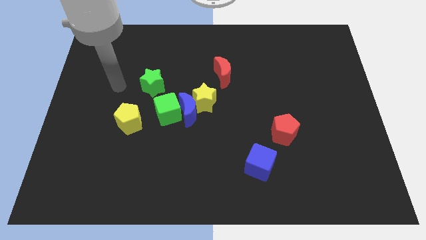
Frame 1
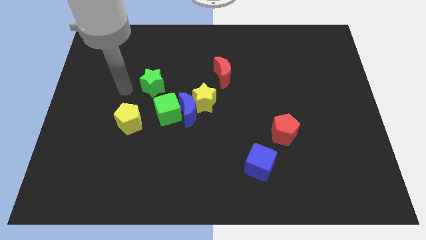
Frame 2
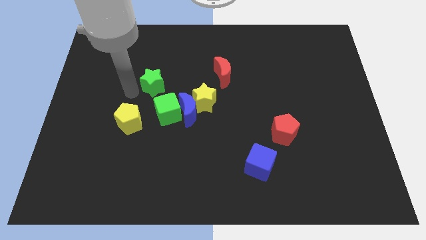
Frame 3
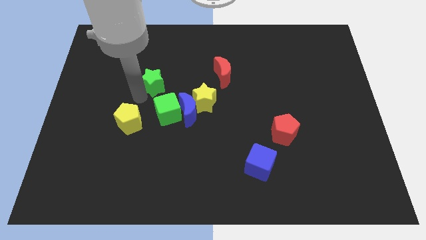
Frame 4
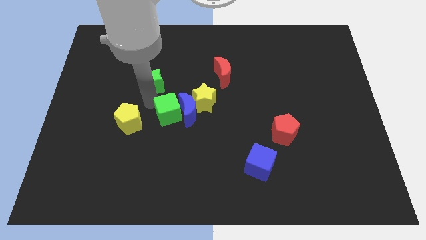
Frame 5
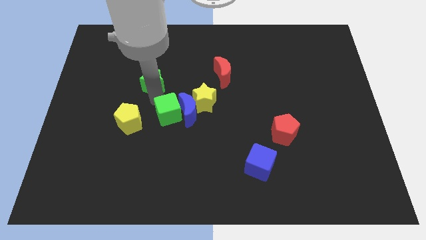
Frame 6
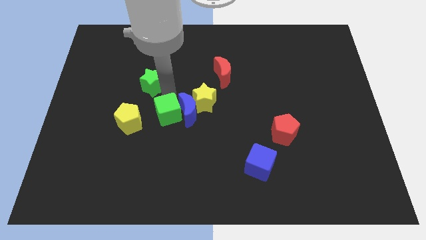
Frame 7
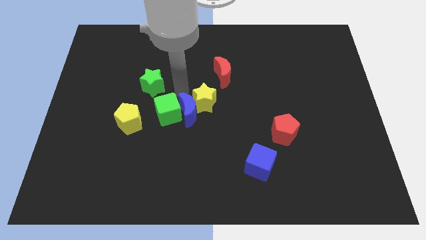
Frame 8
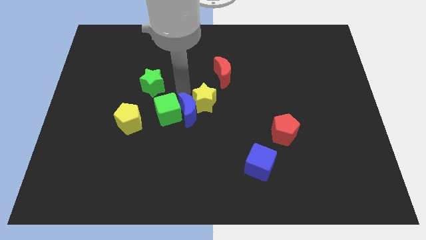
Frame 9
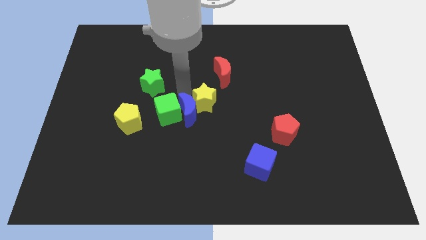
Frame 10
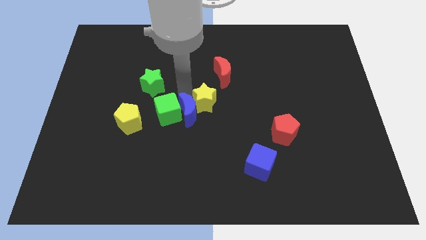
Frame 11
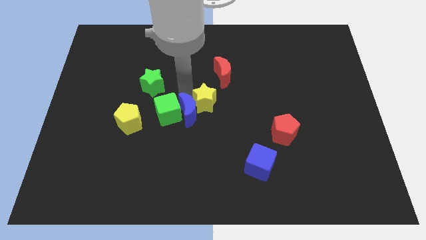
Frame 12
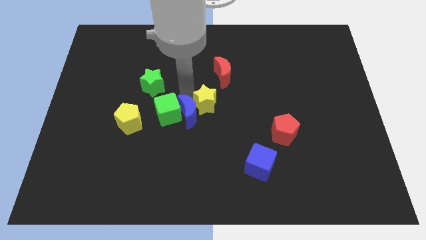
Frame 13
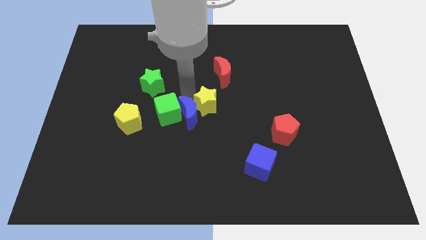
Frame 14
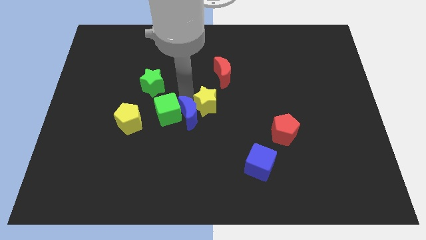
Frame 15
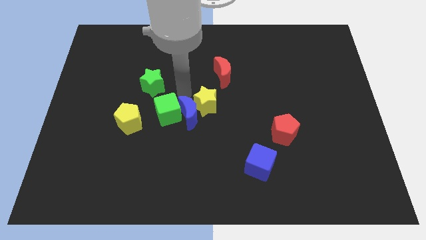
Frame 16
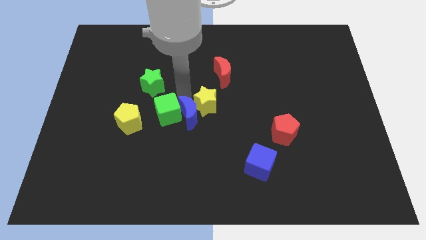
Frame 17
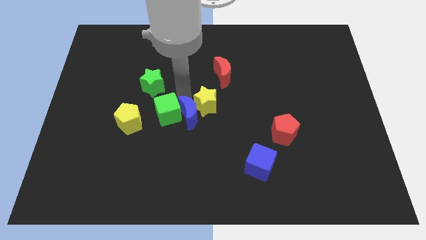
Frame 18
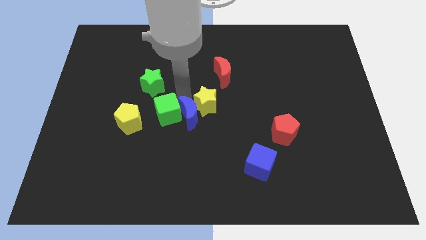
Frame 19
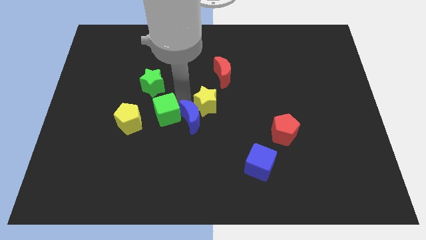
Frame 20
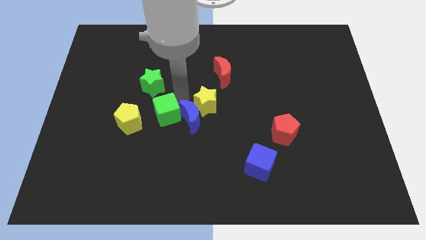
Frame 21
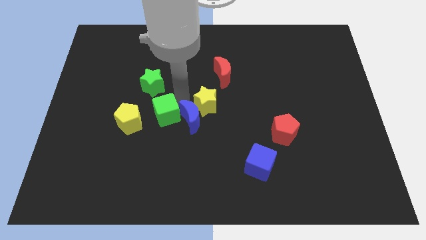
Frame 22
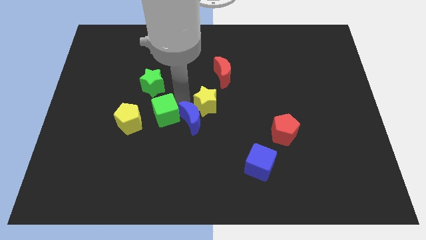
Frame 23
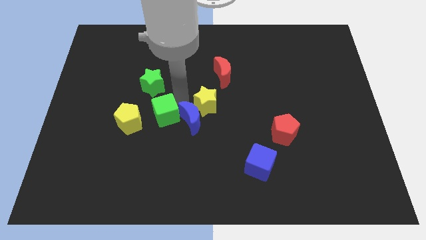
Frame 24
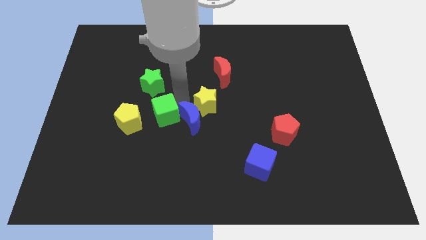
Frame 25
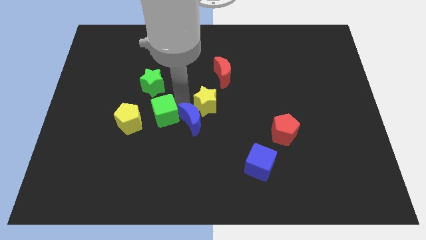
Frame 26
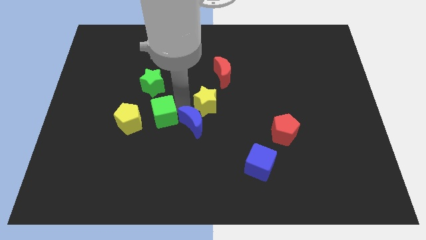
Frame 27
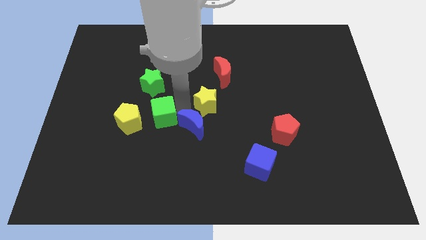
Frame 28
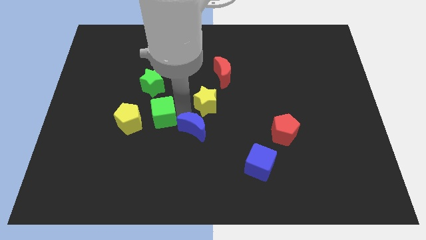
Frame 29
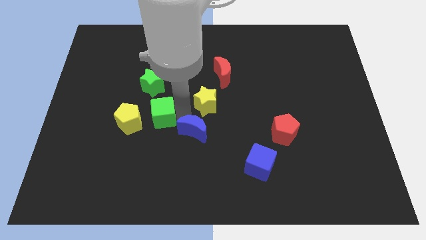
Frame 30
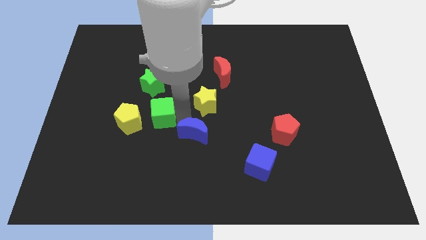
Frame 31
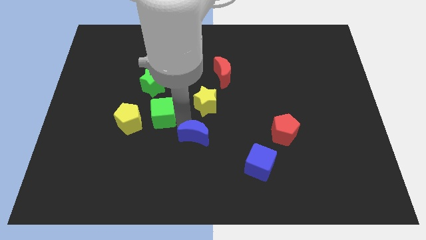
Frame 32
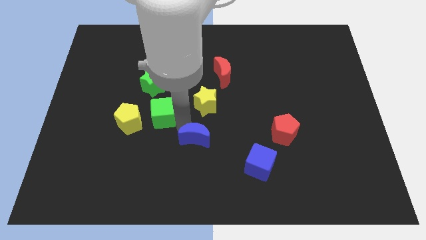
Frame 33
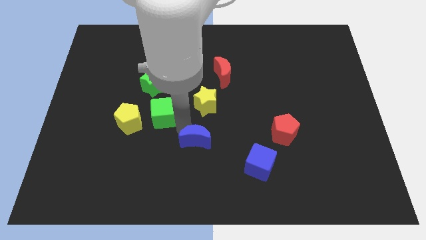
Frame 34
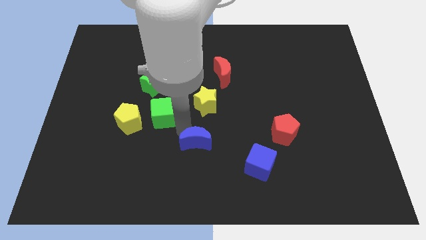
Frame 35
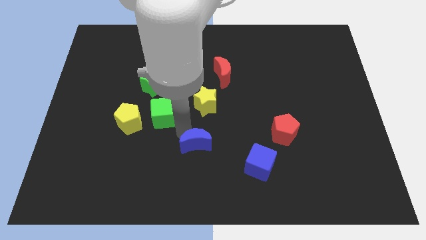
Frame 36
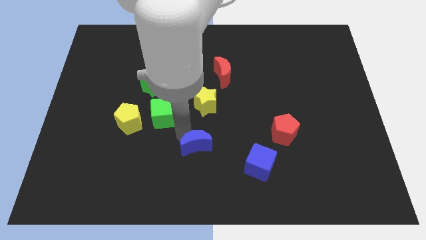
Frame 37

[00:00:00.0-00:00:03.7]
move the blue moon away from the yellow star and green cube

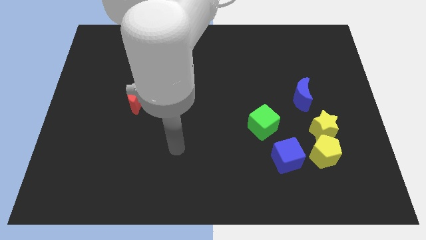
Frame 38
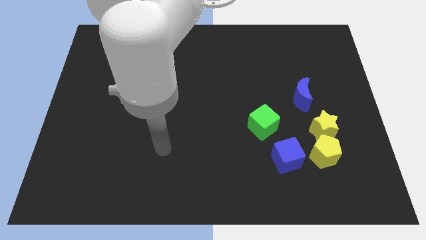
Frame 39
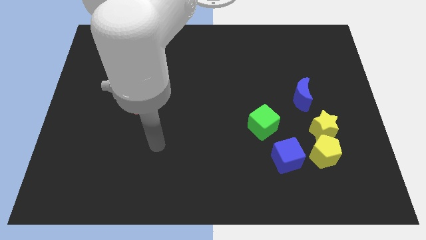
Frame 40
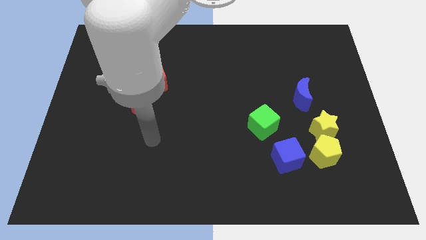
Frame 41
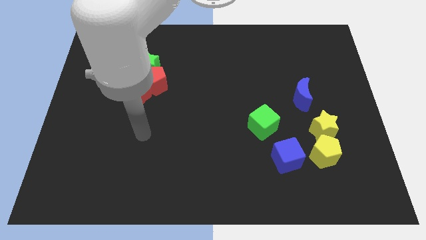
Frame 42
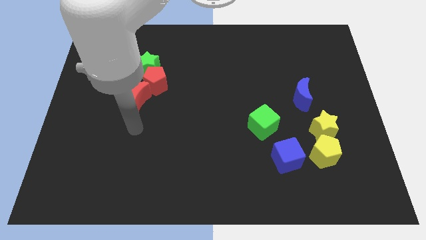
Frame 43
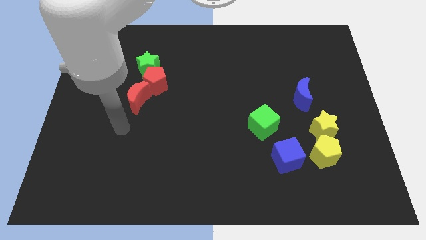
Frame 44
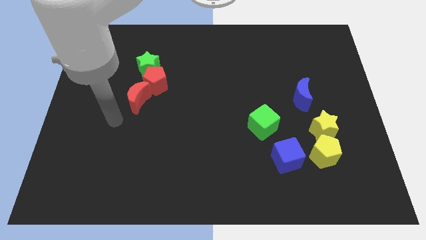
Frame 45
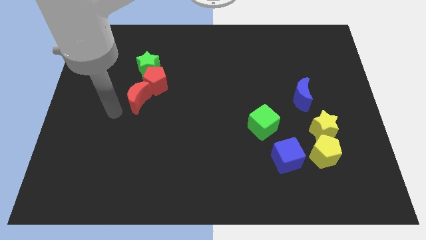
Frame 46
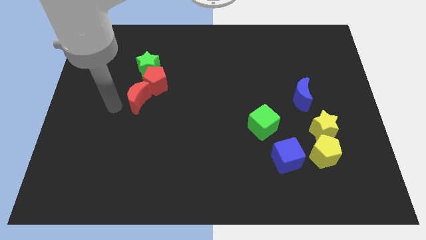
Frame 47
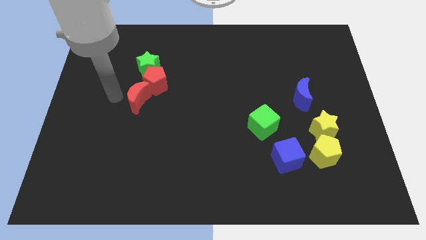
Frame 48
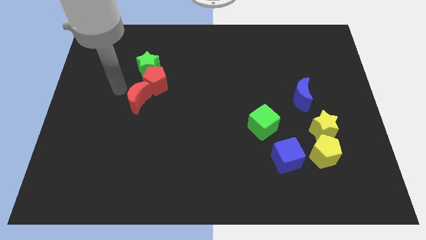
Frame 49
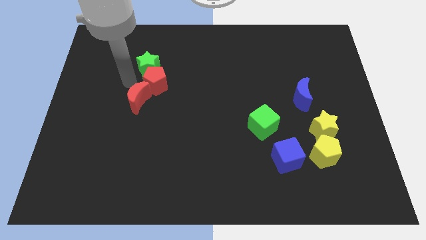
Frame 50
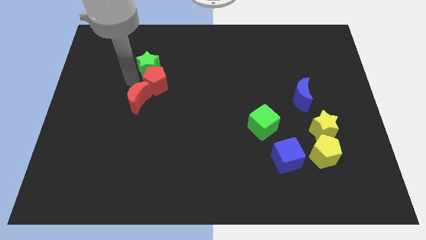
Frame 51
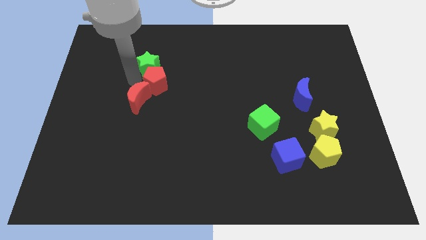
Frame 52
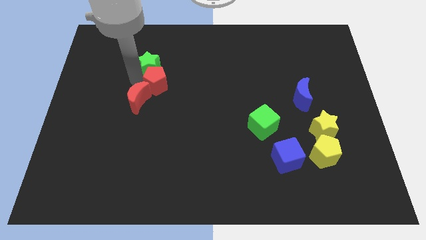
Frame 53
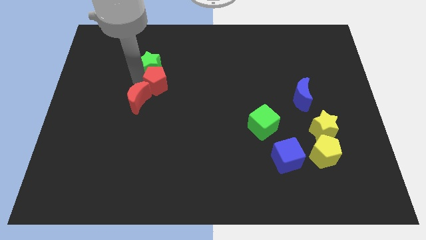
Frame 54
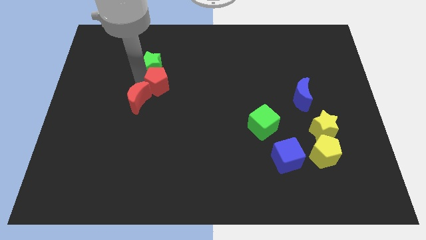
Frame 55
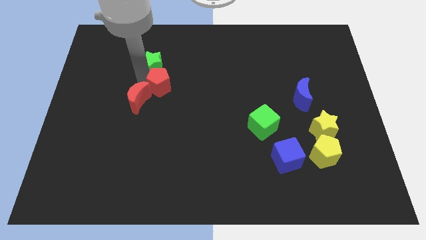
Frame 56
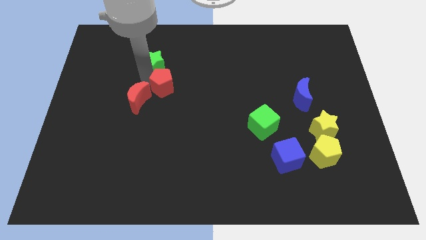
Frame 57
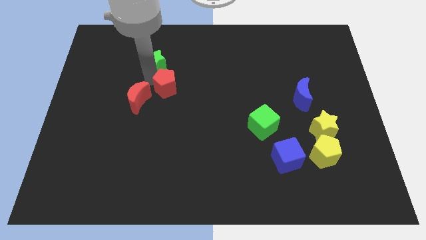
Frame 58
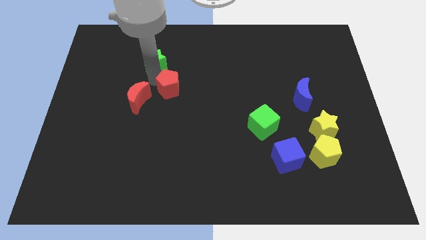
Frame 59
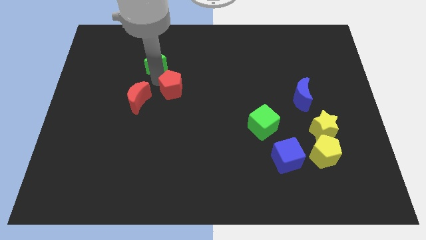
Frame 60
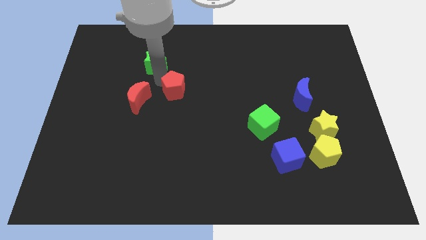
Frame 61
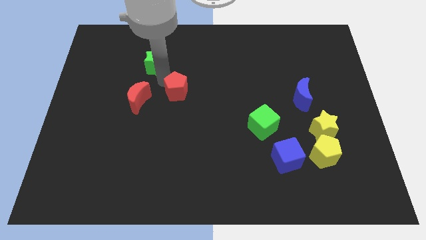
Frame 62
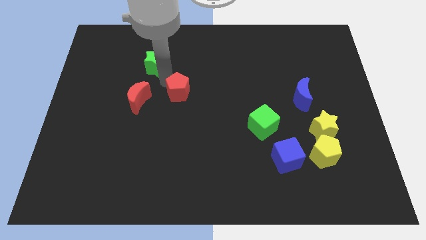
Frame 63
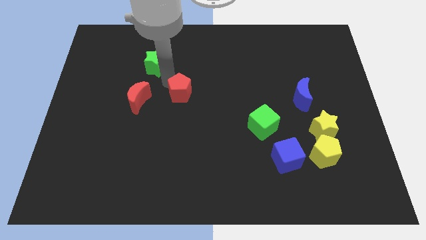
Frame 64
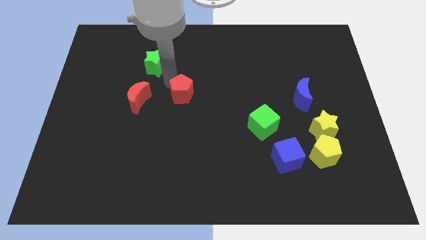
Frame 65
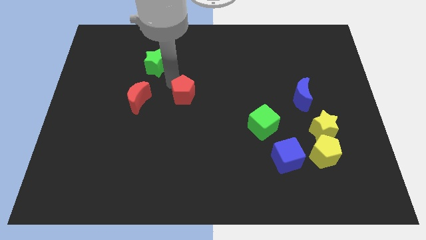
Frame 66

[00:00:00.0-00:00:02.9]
pull the red pentagon apart from the green star and red moon

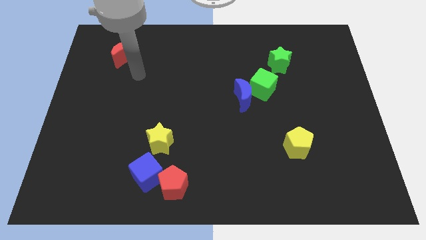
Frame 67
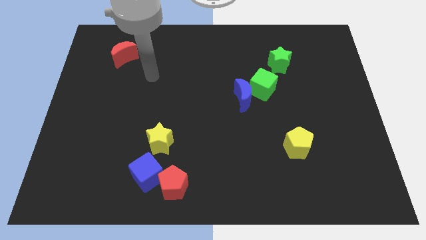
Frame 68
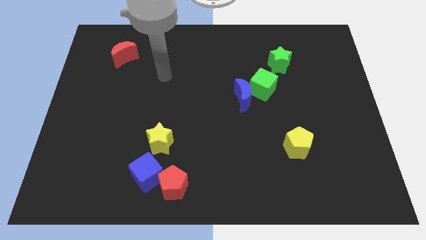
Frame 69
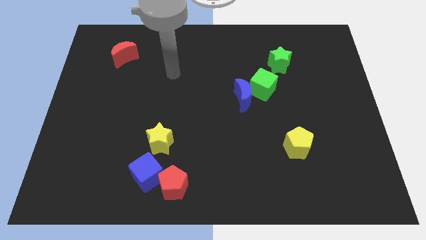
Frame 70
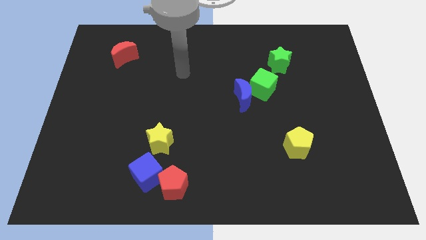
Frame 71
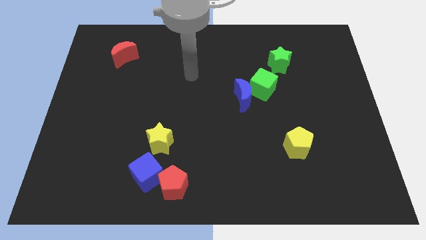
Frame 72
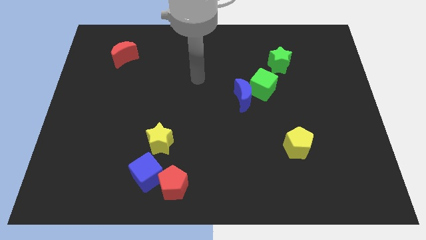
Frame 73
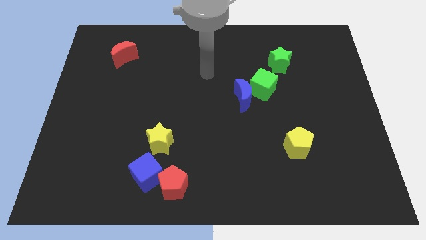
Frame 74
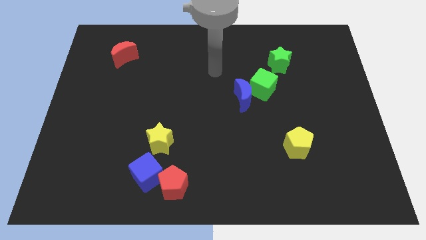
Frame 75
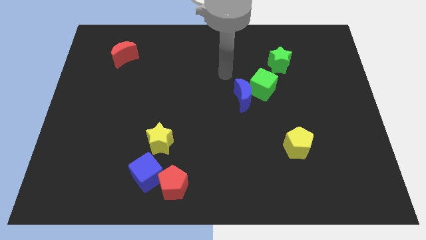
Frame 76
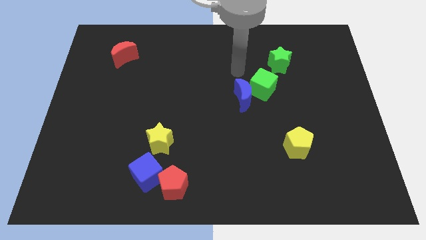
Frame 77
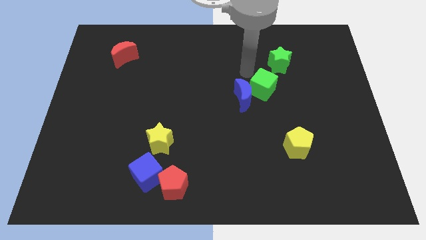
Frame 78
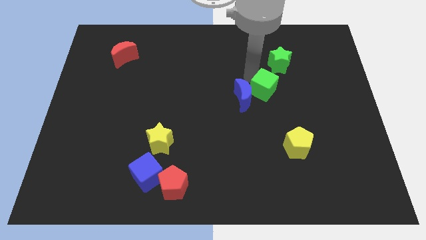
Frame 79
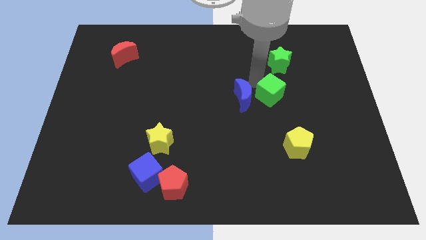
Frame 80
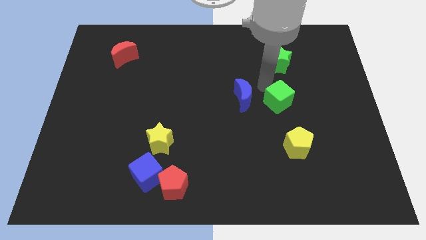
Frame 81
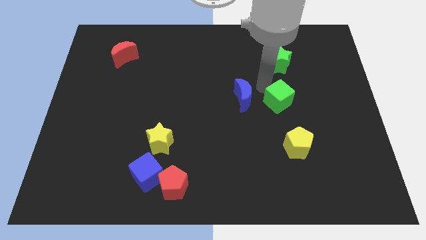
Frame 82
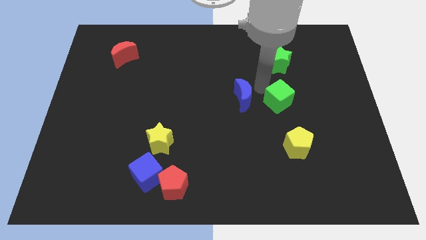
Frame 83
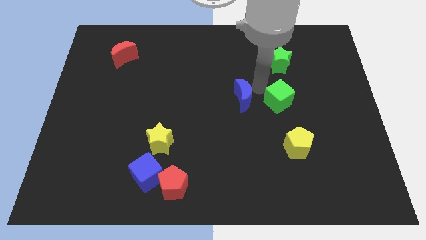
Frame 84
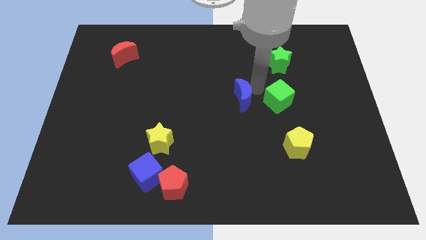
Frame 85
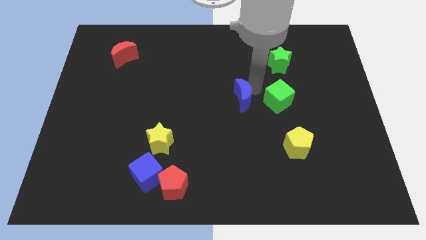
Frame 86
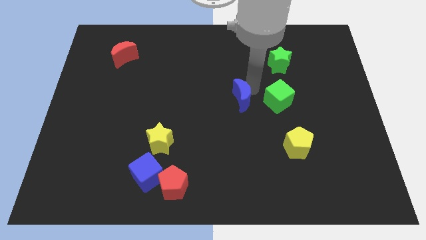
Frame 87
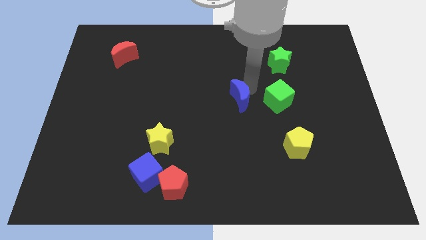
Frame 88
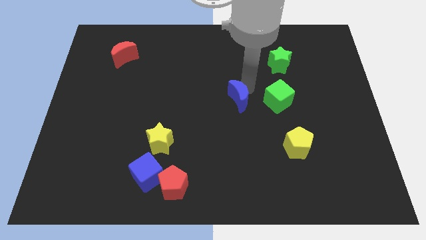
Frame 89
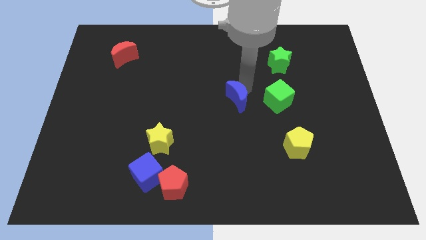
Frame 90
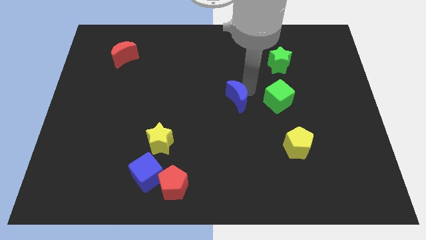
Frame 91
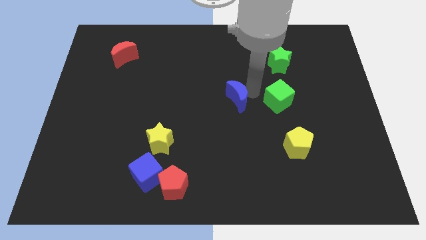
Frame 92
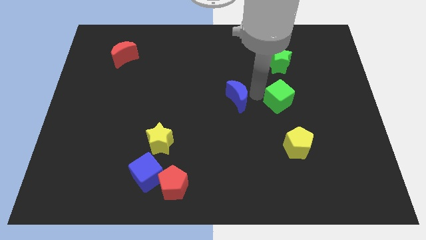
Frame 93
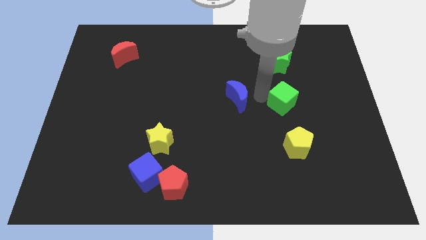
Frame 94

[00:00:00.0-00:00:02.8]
separate the blue moon from the green cube
